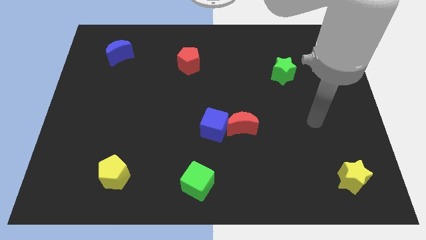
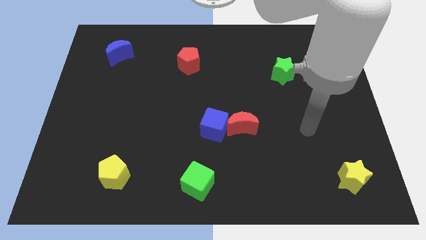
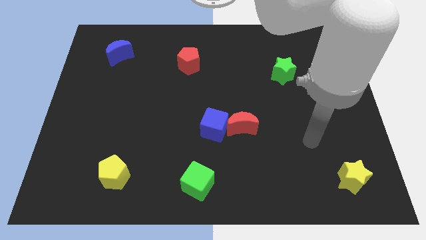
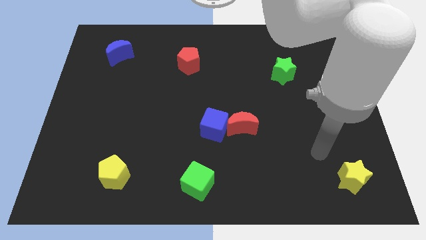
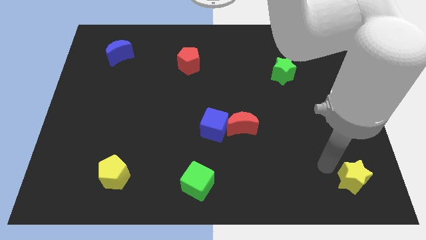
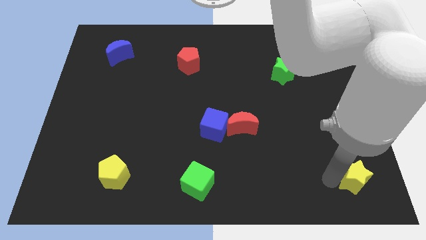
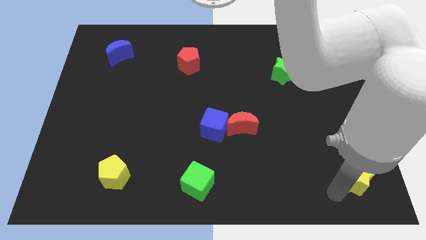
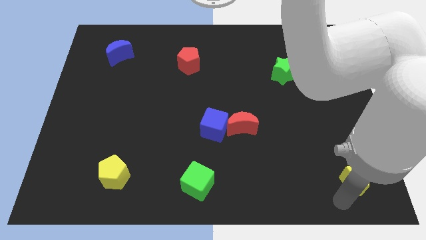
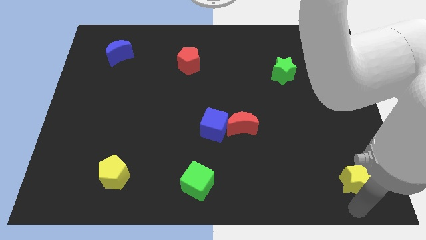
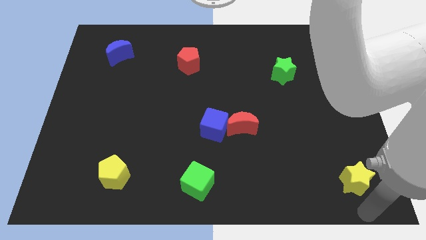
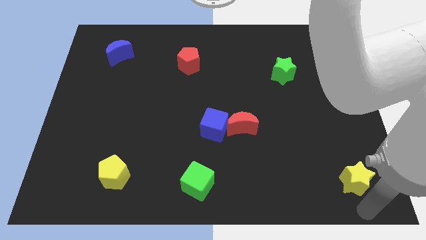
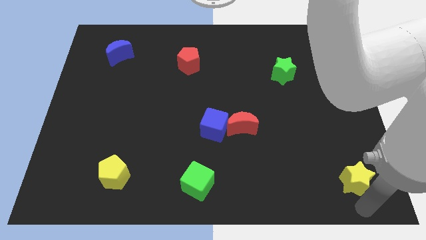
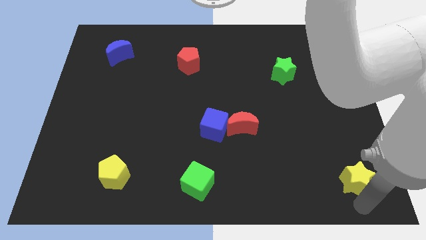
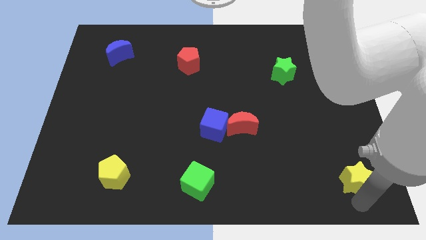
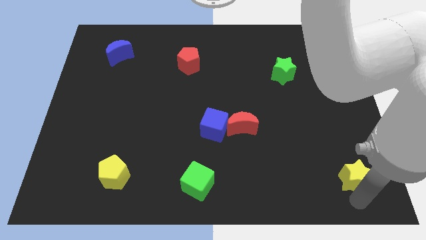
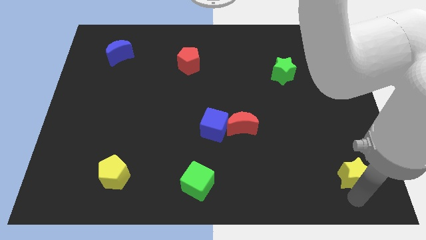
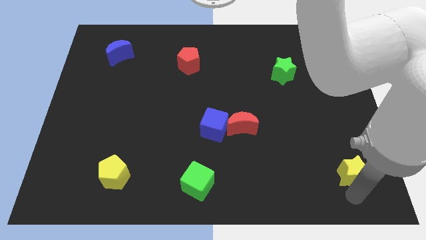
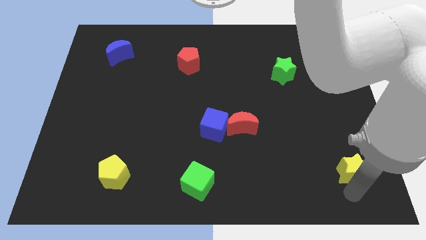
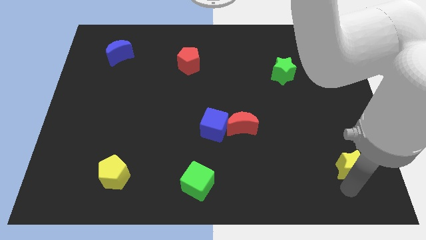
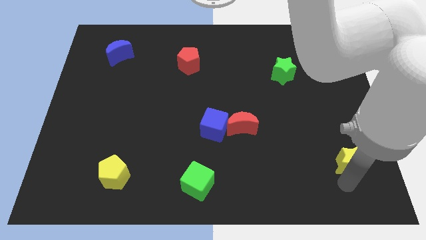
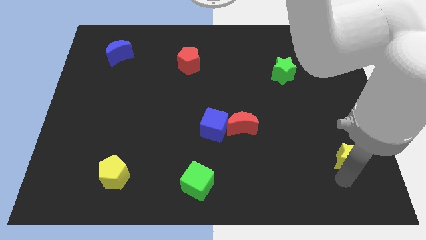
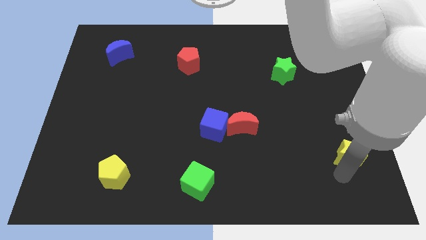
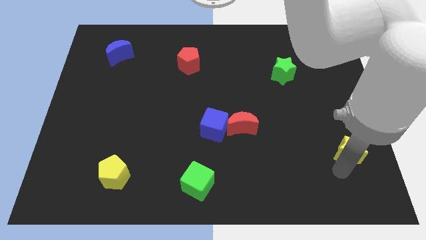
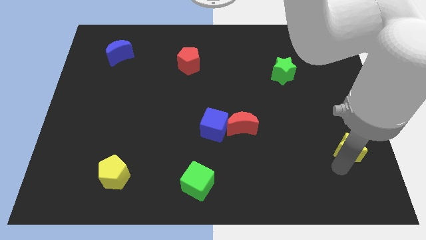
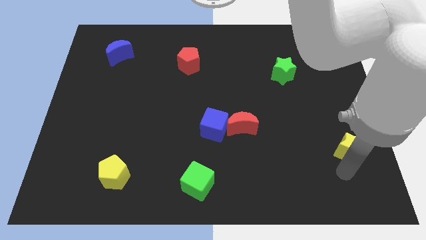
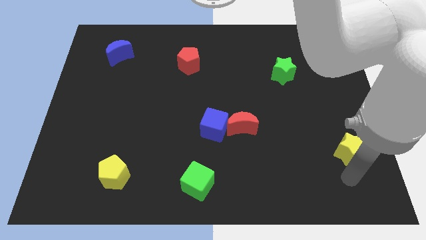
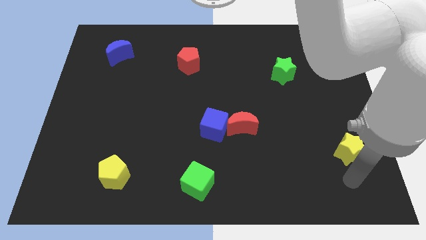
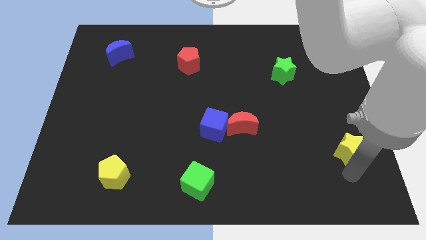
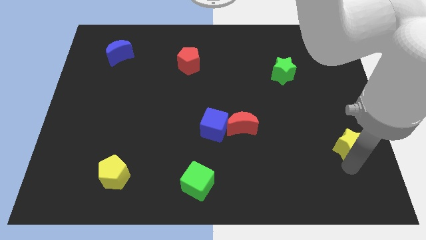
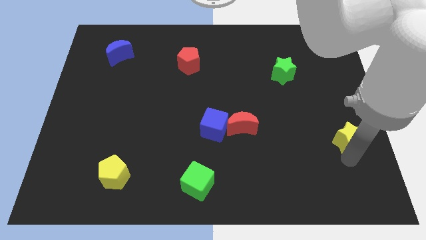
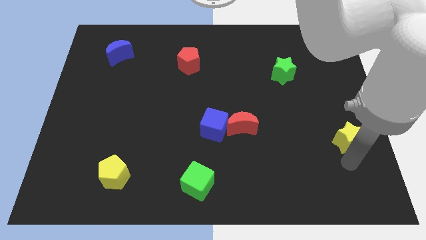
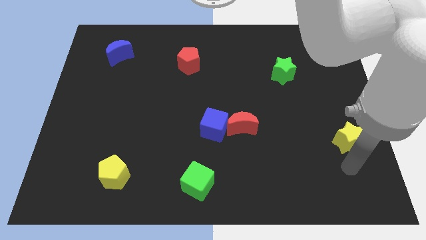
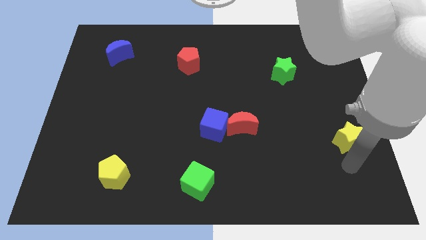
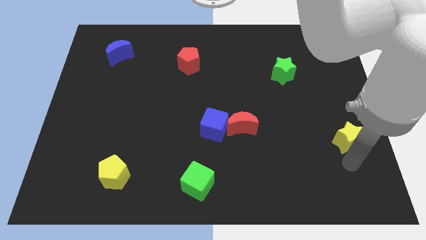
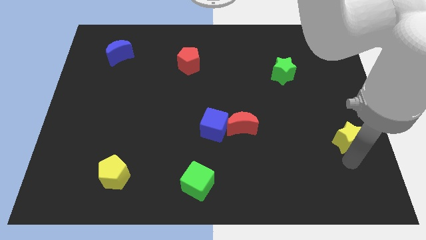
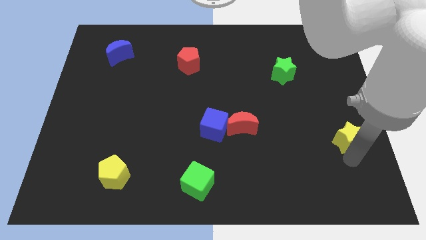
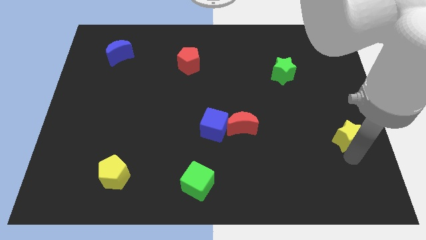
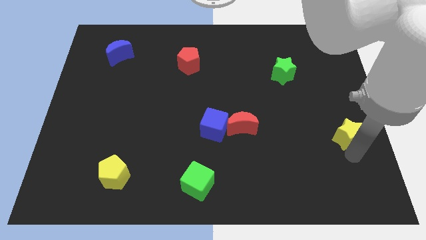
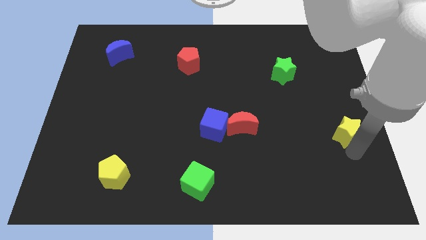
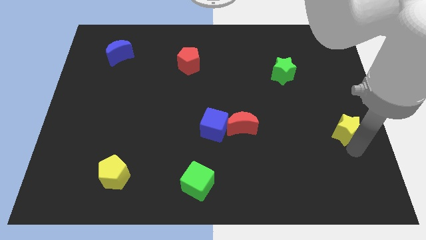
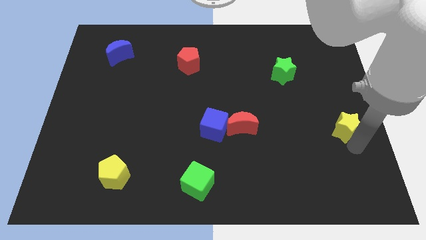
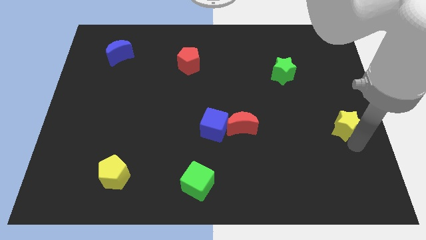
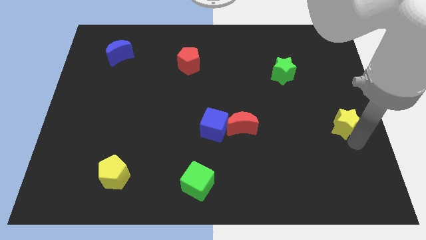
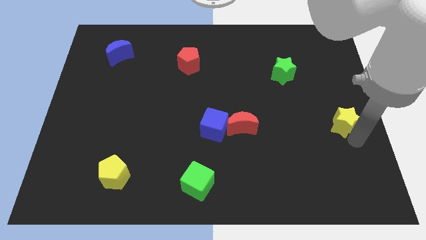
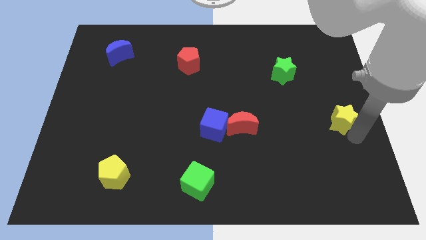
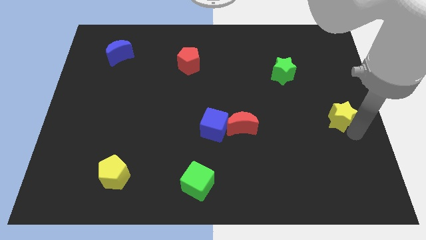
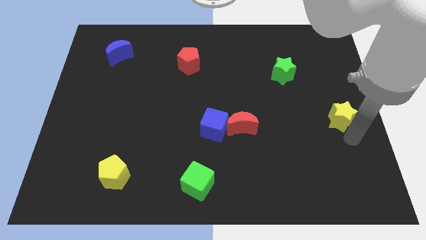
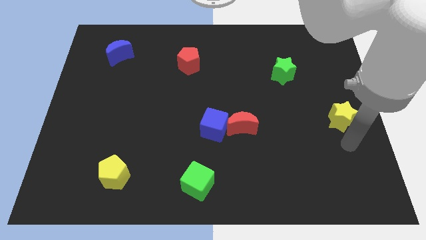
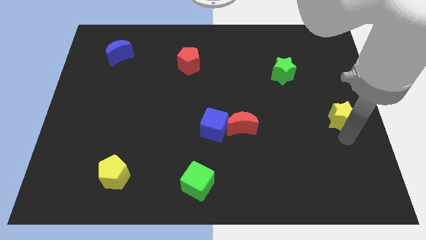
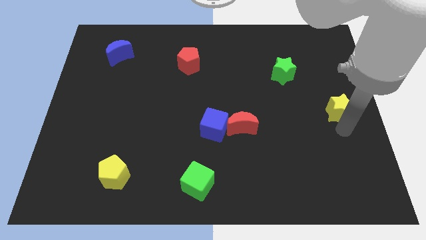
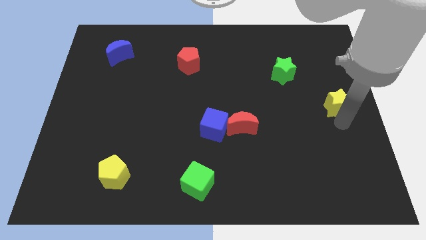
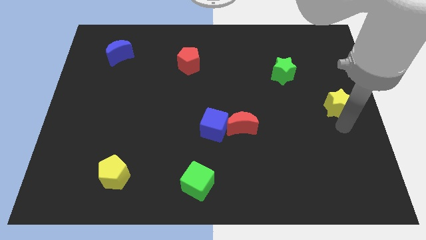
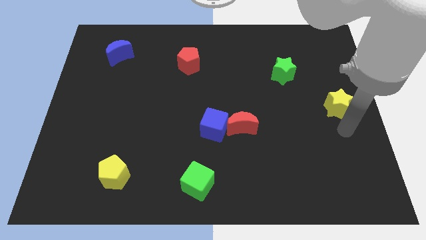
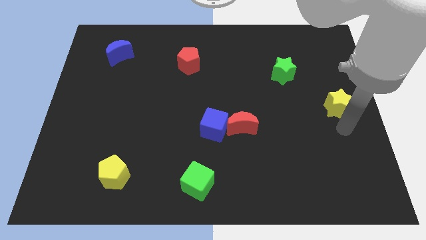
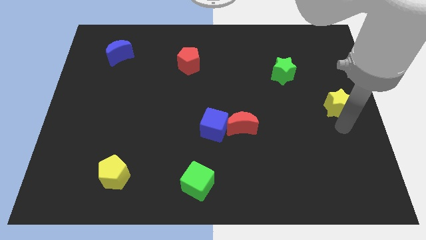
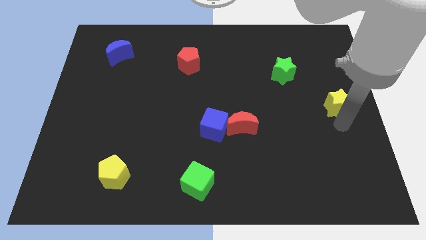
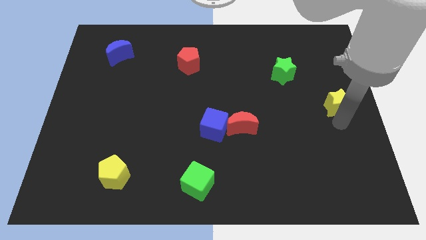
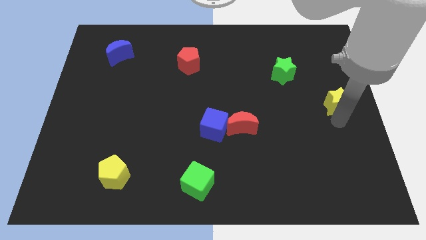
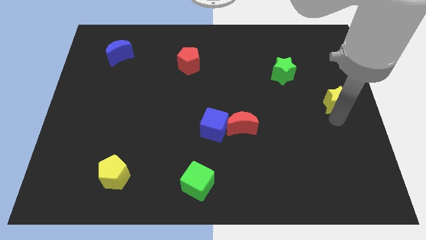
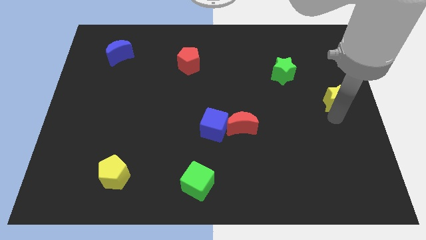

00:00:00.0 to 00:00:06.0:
move the yellow star up

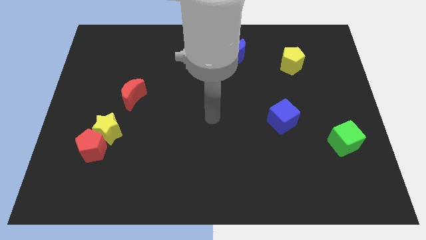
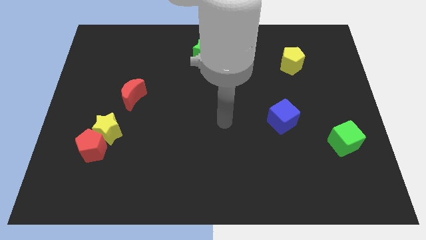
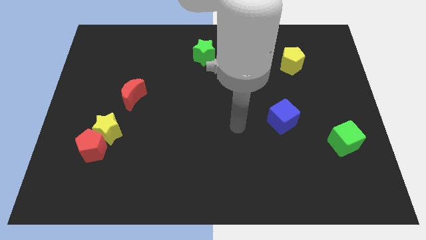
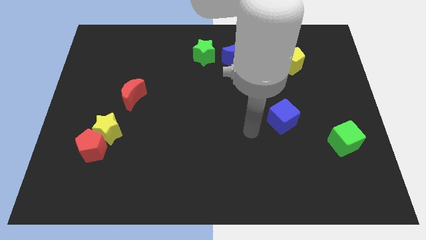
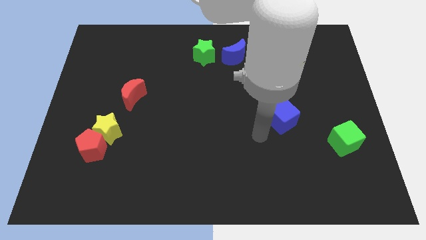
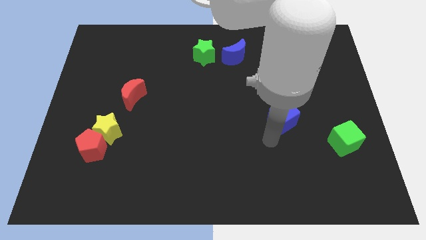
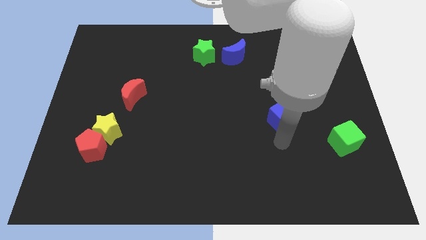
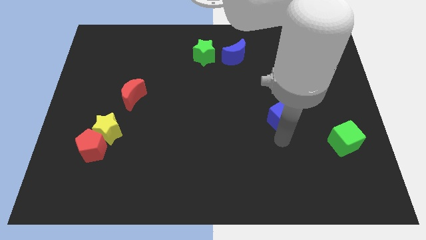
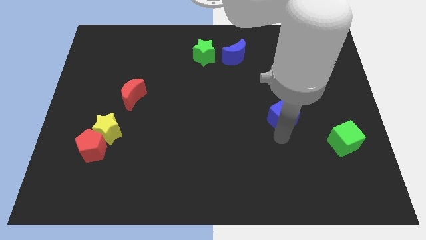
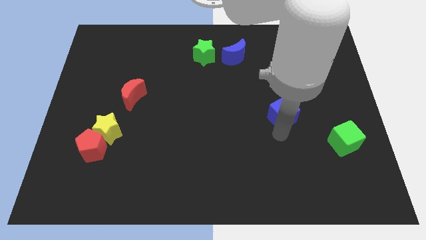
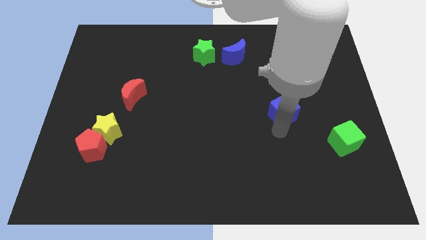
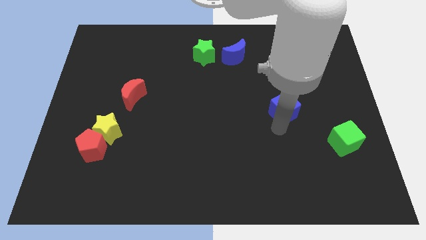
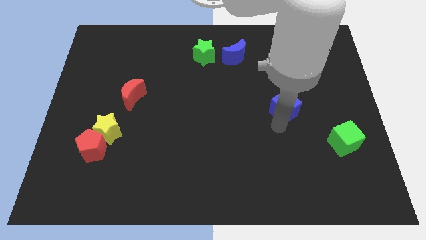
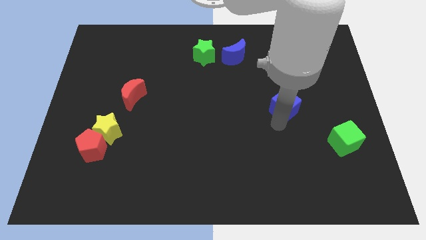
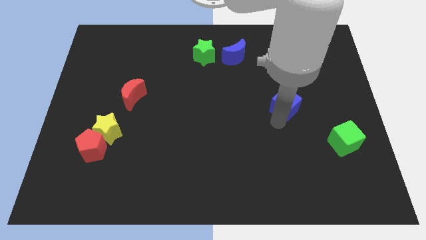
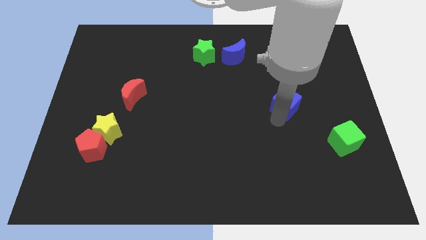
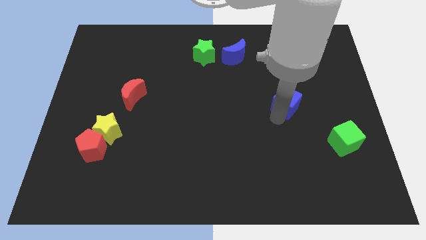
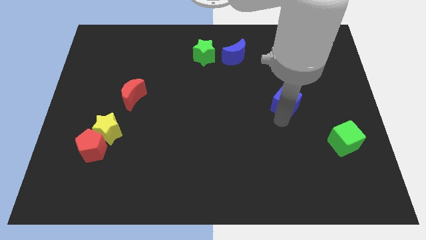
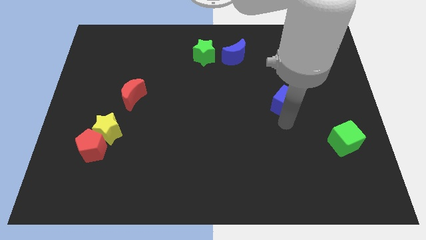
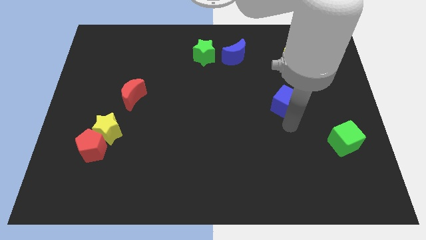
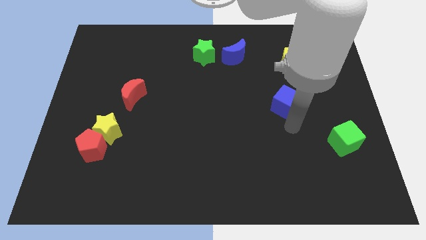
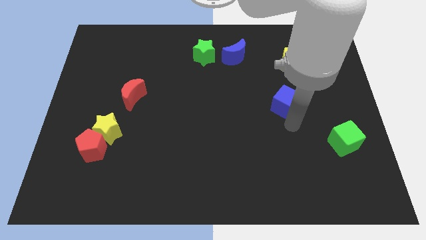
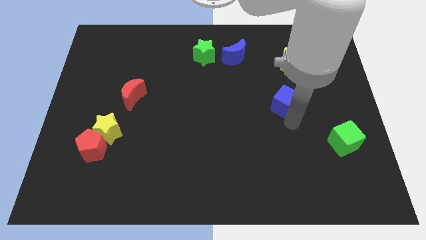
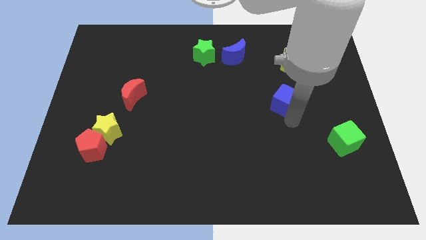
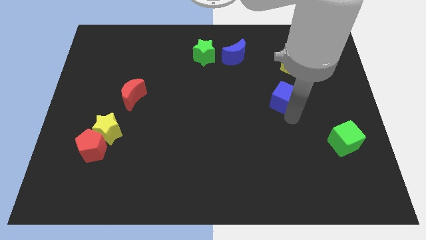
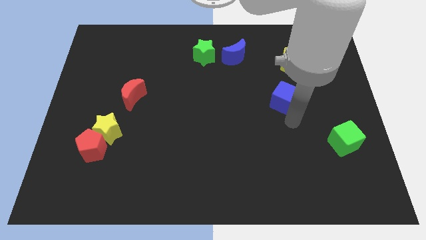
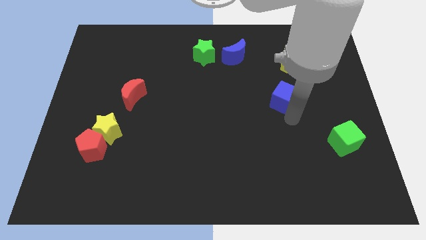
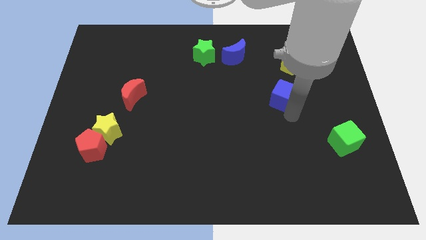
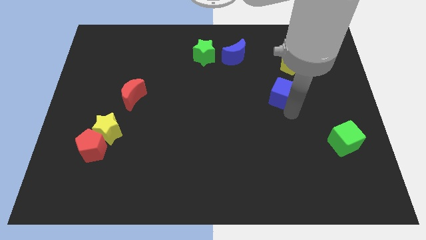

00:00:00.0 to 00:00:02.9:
slightly push the blue cube up
